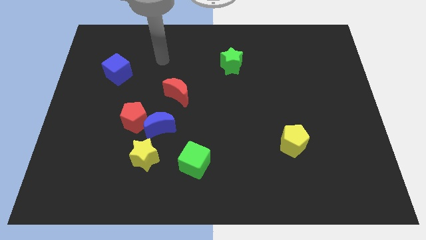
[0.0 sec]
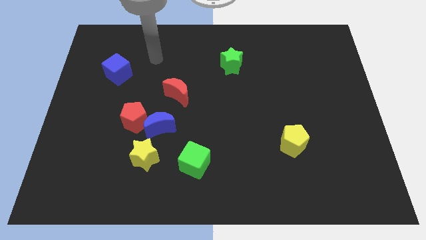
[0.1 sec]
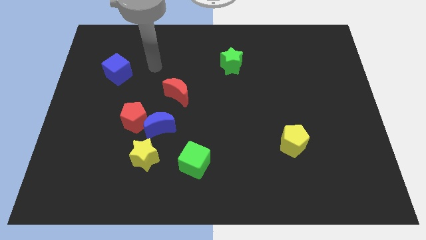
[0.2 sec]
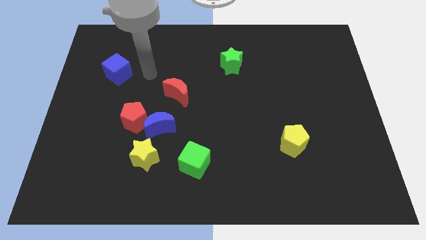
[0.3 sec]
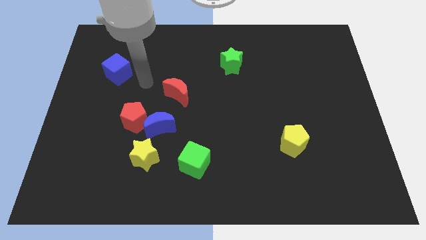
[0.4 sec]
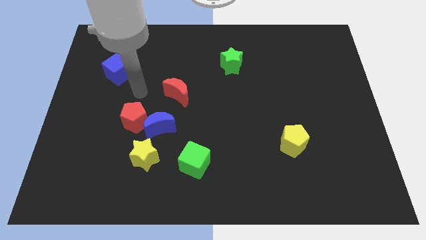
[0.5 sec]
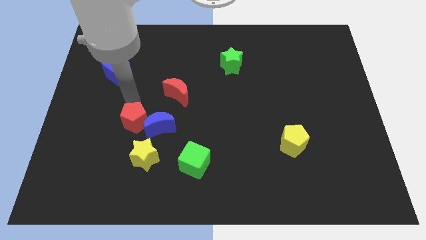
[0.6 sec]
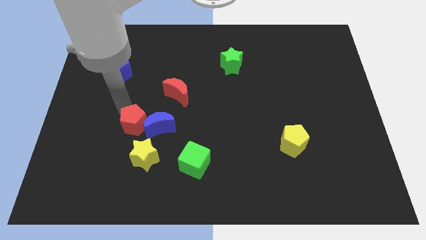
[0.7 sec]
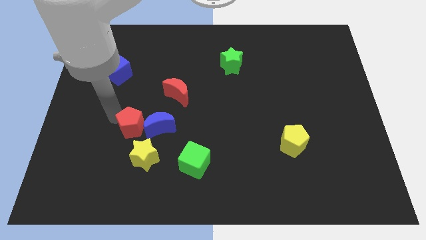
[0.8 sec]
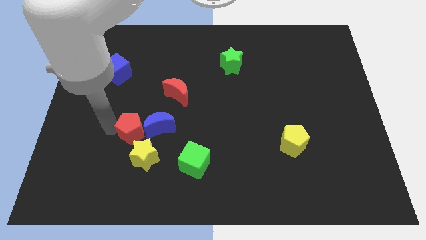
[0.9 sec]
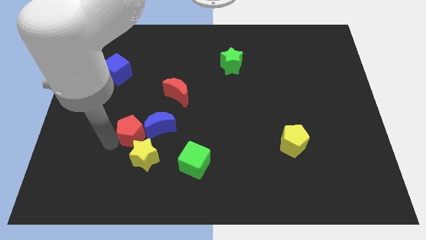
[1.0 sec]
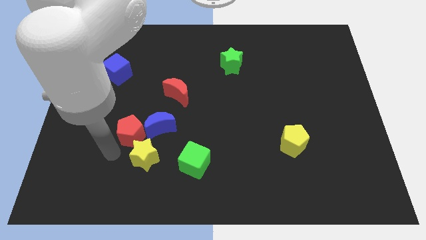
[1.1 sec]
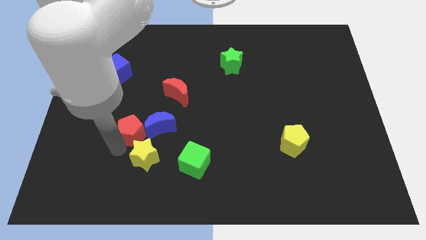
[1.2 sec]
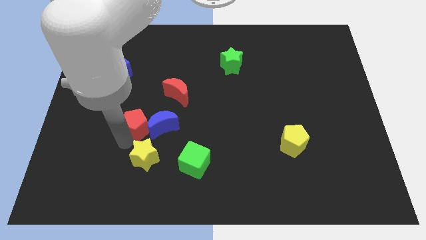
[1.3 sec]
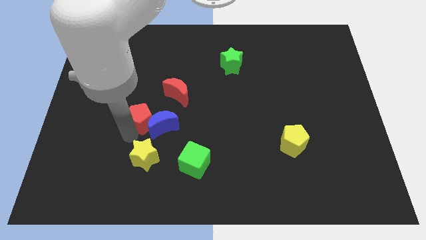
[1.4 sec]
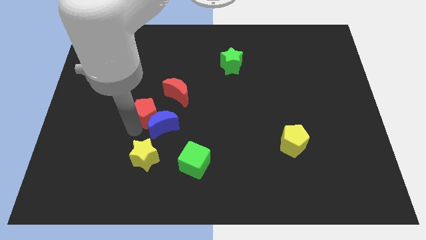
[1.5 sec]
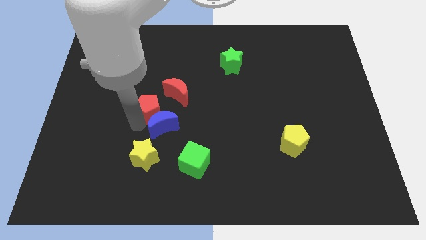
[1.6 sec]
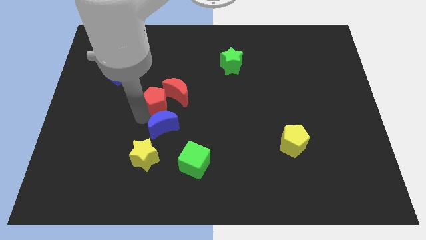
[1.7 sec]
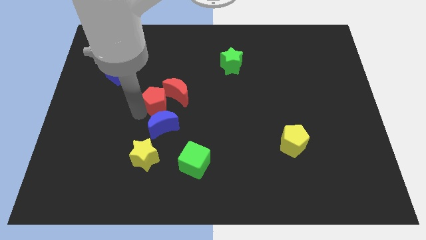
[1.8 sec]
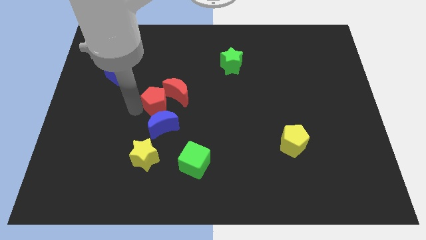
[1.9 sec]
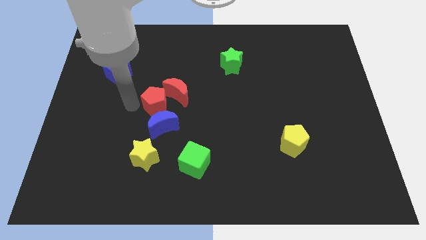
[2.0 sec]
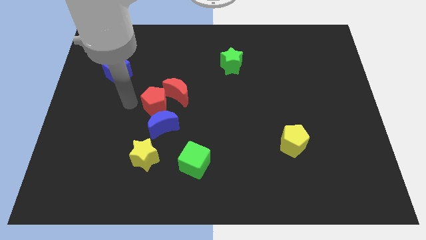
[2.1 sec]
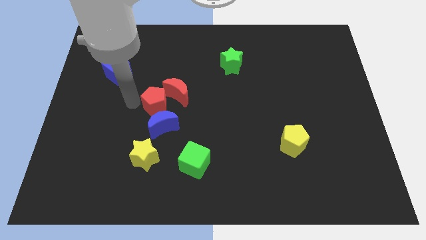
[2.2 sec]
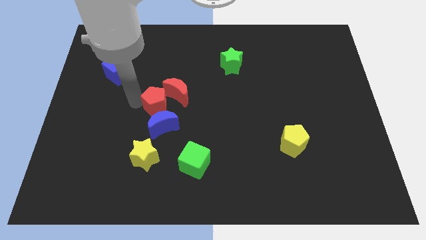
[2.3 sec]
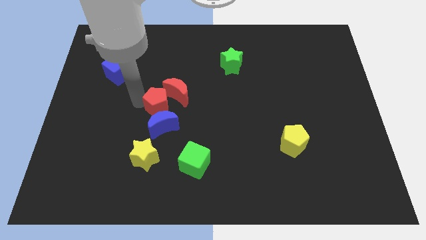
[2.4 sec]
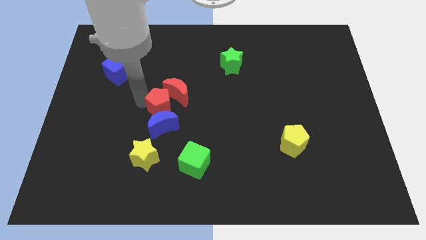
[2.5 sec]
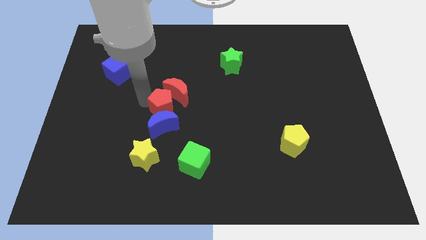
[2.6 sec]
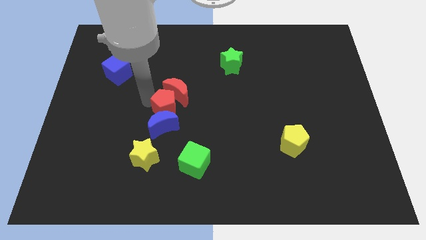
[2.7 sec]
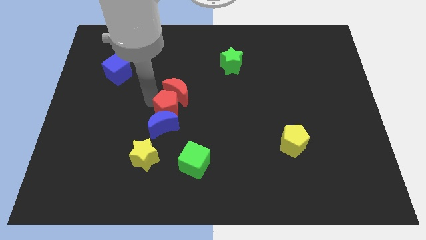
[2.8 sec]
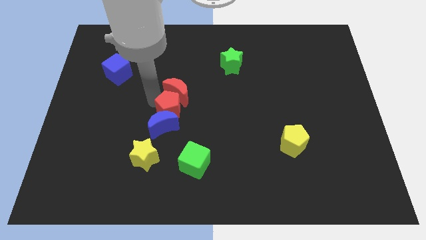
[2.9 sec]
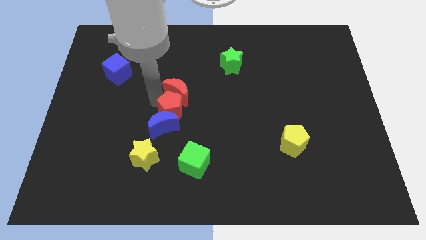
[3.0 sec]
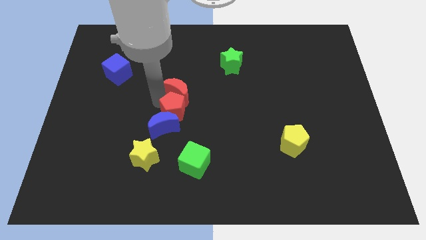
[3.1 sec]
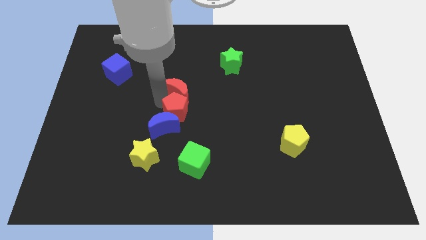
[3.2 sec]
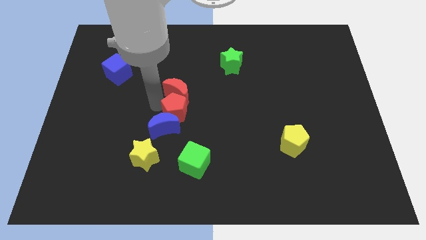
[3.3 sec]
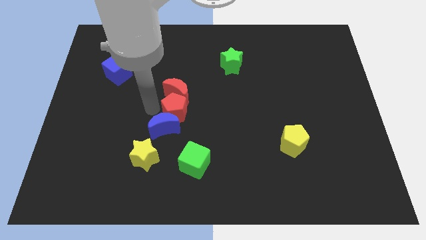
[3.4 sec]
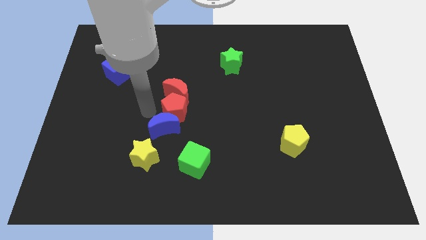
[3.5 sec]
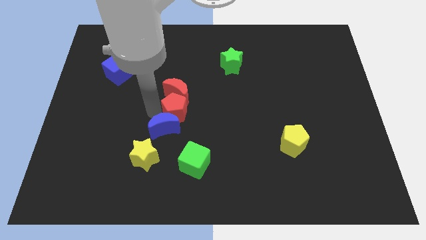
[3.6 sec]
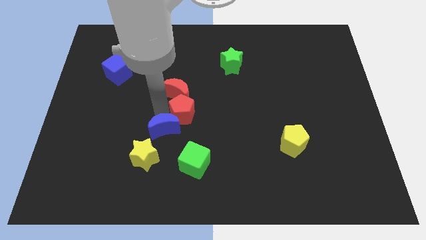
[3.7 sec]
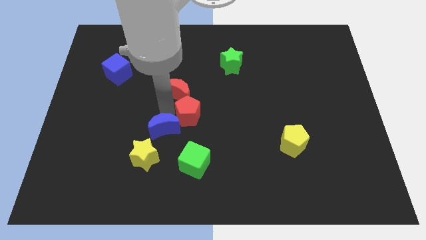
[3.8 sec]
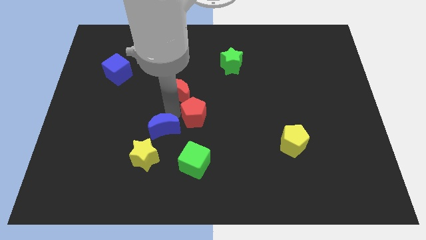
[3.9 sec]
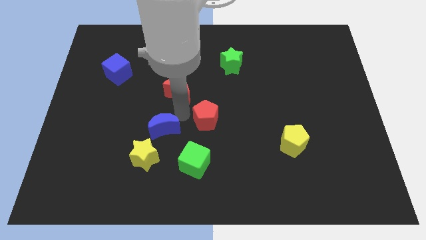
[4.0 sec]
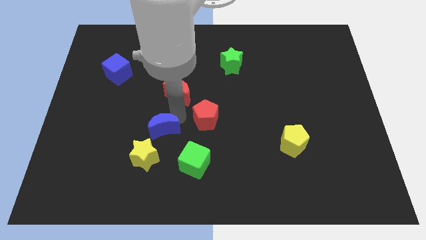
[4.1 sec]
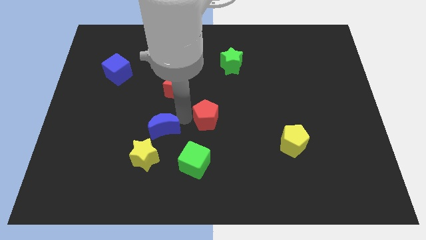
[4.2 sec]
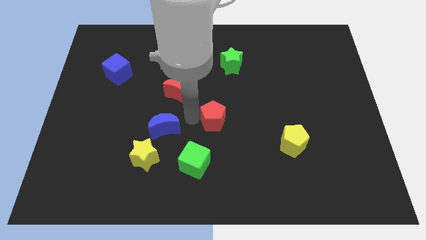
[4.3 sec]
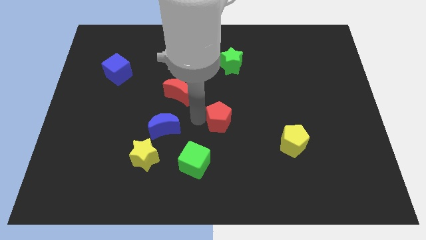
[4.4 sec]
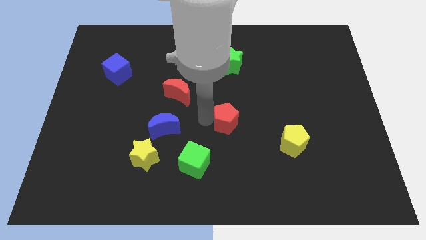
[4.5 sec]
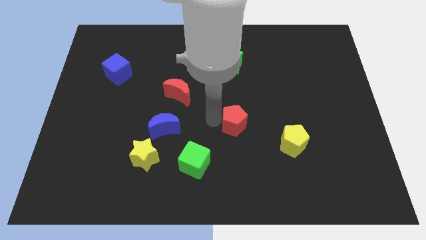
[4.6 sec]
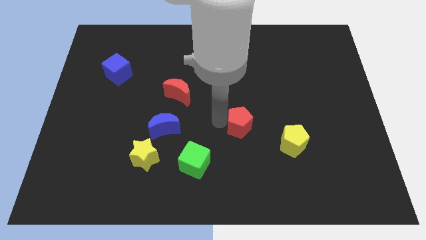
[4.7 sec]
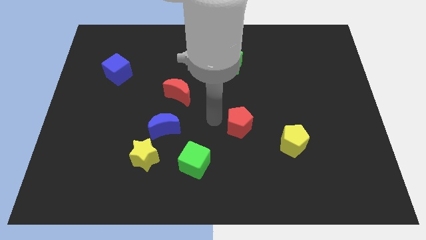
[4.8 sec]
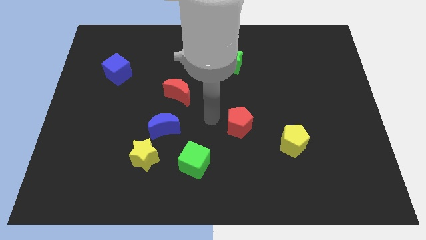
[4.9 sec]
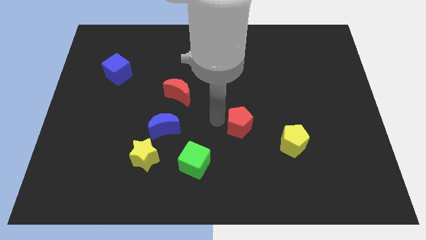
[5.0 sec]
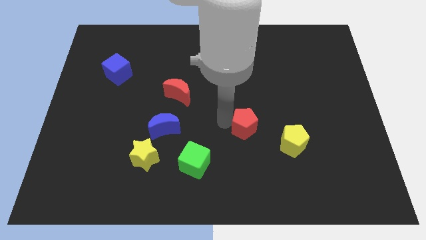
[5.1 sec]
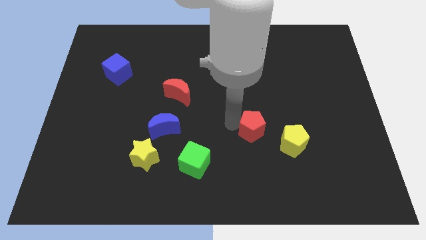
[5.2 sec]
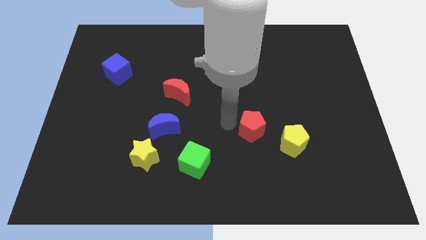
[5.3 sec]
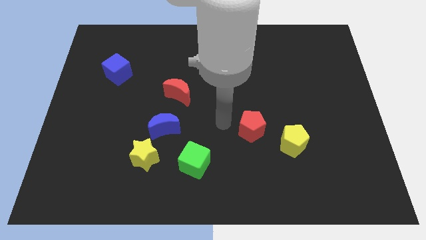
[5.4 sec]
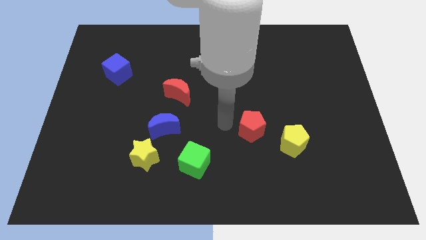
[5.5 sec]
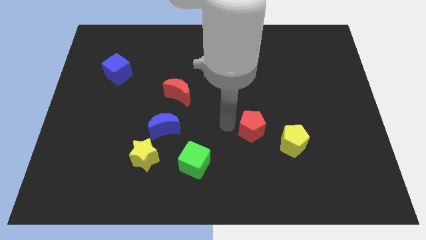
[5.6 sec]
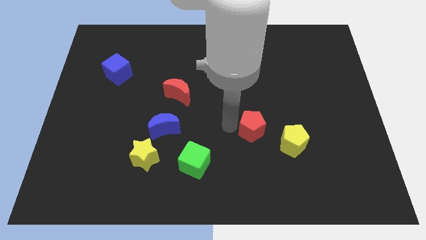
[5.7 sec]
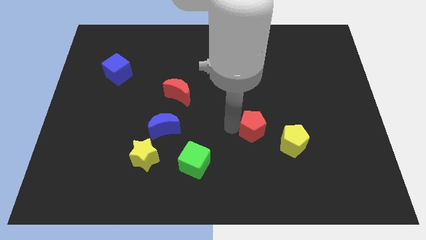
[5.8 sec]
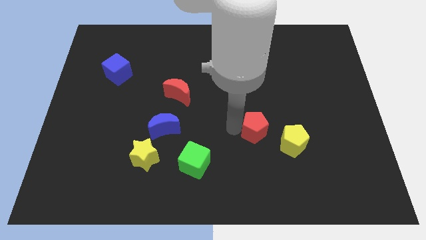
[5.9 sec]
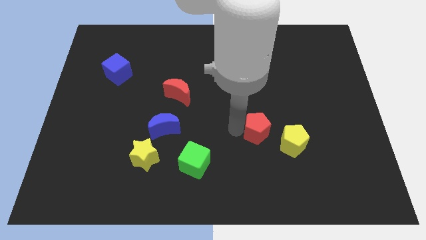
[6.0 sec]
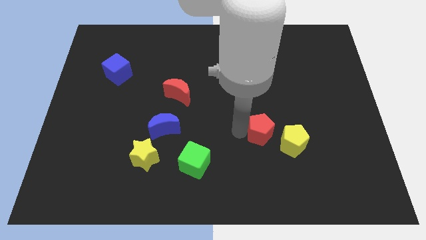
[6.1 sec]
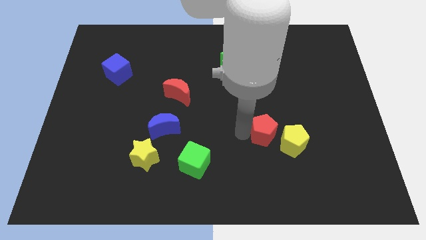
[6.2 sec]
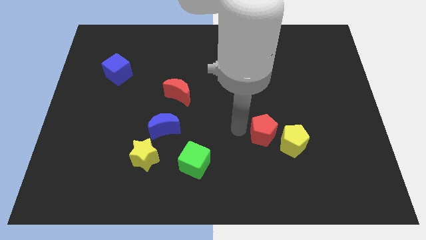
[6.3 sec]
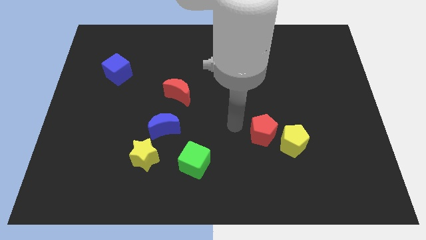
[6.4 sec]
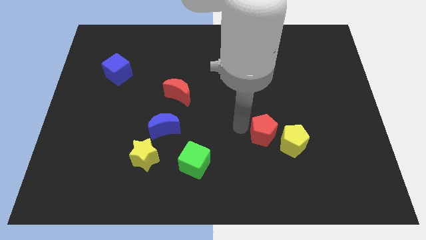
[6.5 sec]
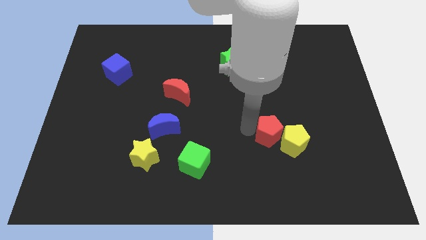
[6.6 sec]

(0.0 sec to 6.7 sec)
push the red pentagon towards the yellow pentagon
